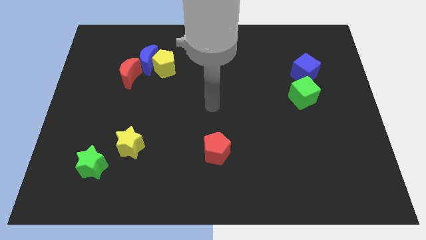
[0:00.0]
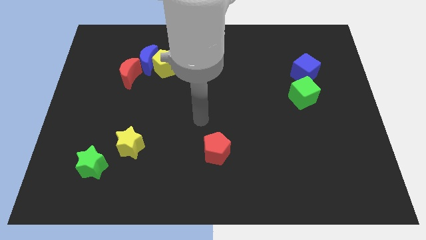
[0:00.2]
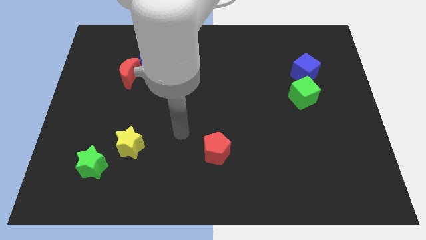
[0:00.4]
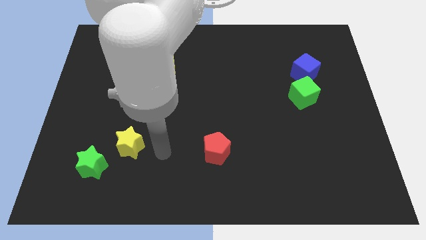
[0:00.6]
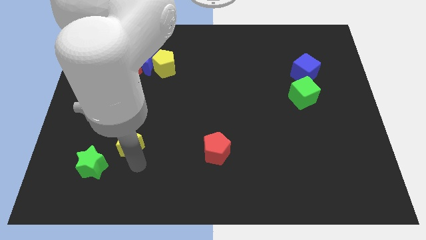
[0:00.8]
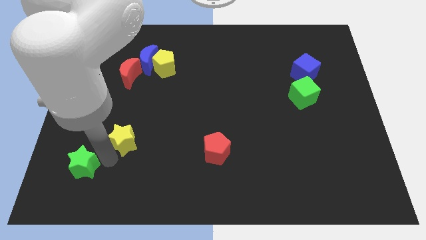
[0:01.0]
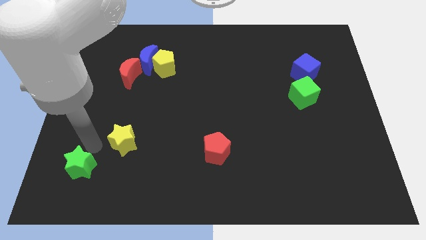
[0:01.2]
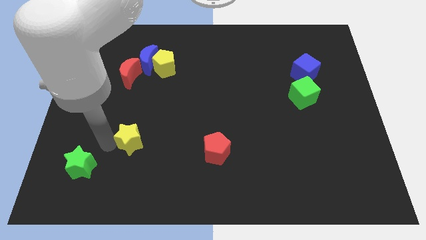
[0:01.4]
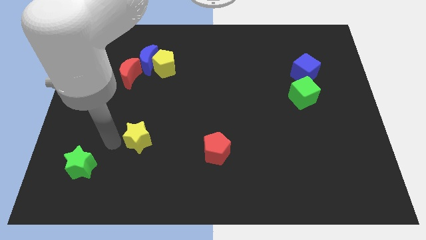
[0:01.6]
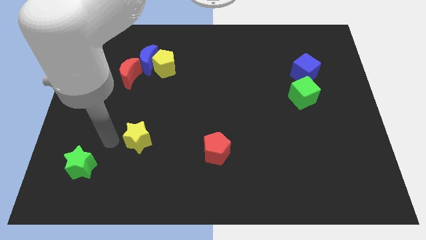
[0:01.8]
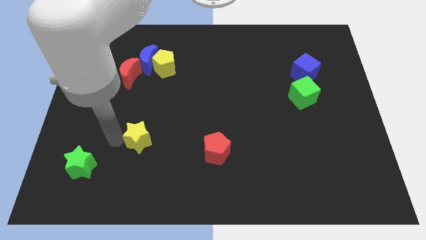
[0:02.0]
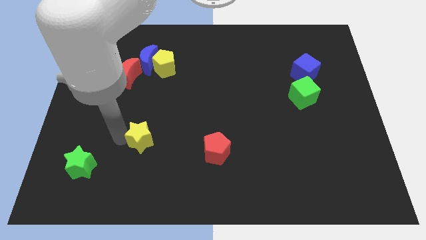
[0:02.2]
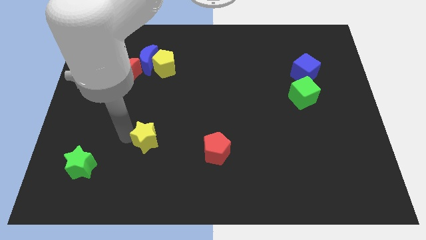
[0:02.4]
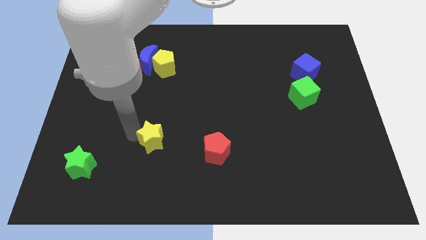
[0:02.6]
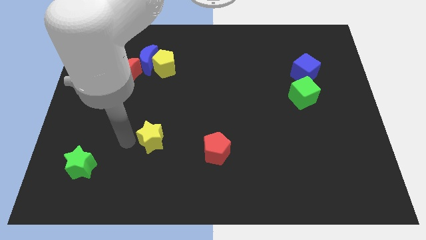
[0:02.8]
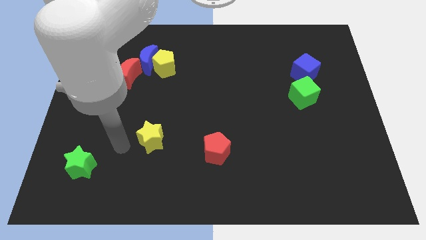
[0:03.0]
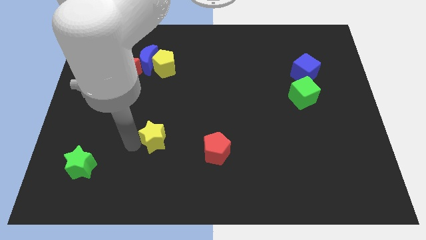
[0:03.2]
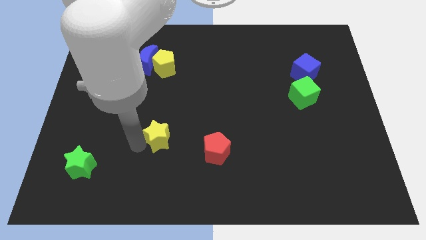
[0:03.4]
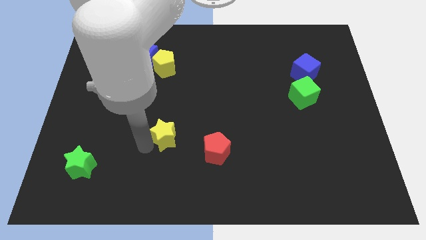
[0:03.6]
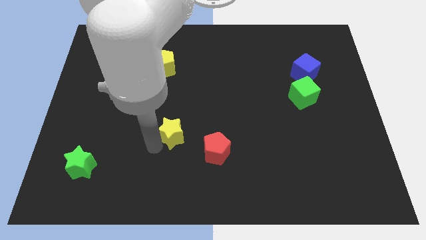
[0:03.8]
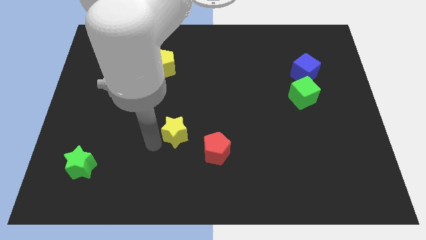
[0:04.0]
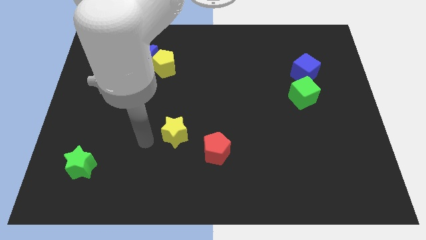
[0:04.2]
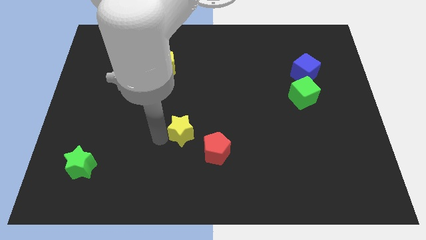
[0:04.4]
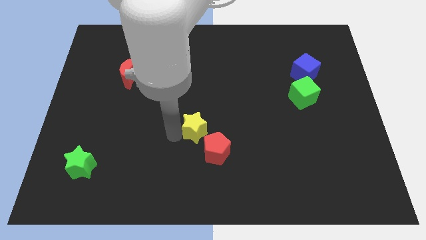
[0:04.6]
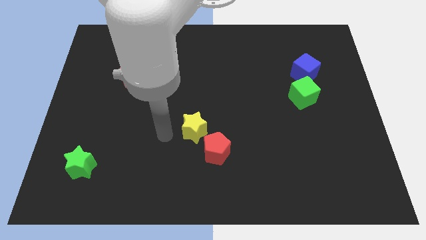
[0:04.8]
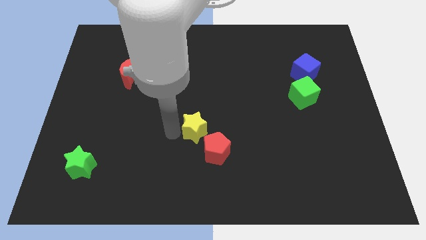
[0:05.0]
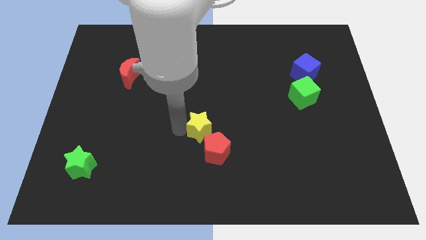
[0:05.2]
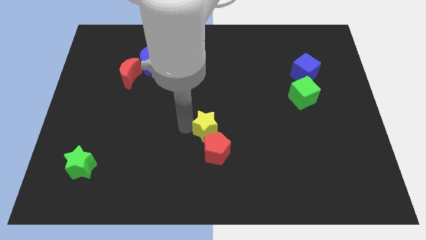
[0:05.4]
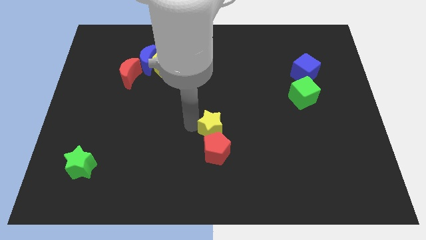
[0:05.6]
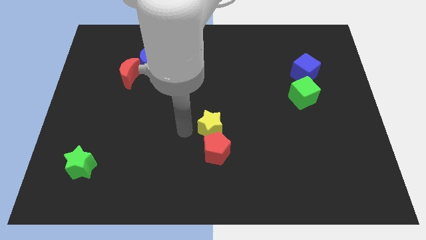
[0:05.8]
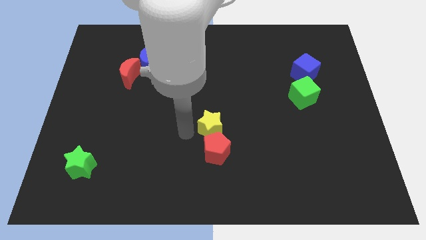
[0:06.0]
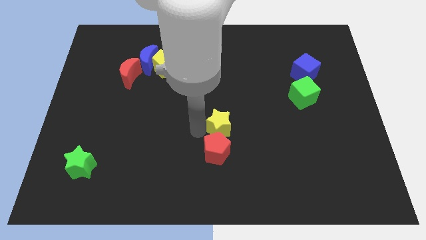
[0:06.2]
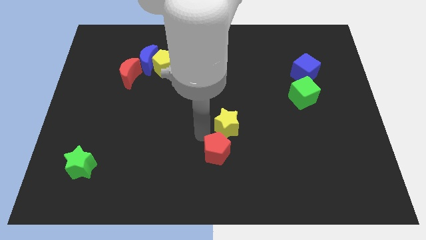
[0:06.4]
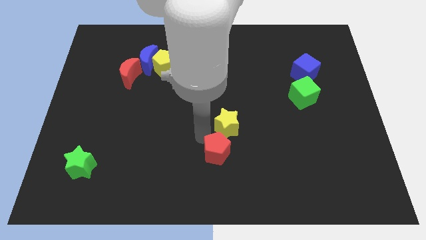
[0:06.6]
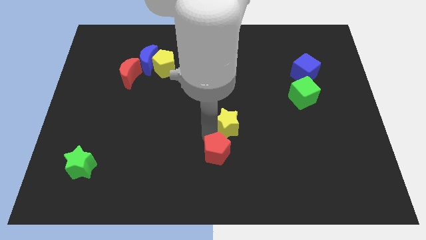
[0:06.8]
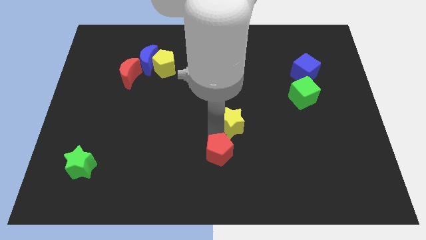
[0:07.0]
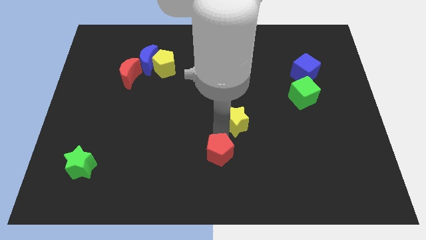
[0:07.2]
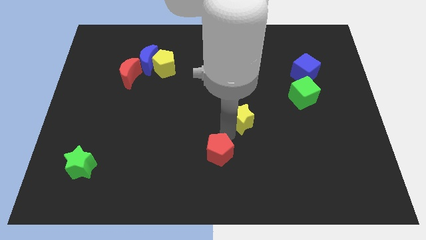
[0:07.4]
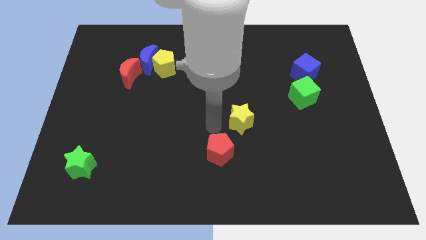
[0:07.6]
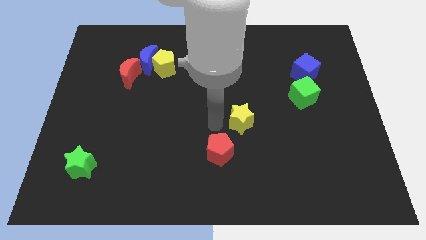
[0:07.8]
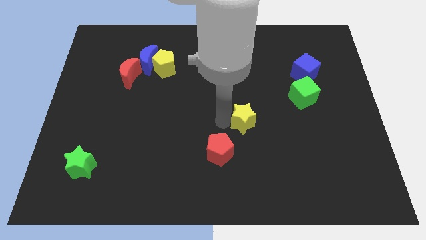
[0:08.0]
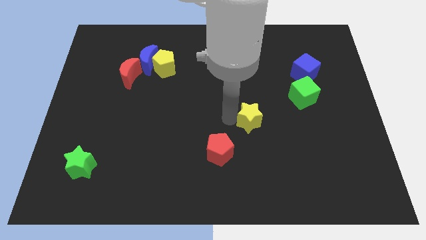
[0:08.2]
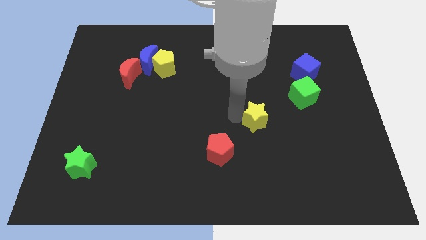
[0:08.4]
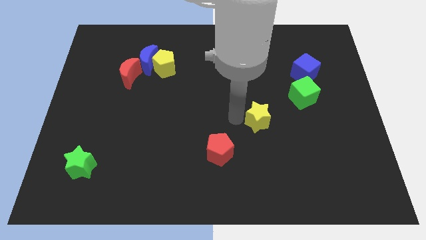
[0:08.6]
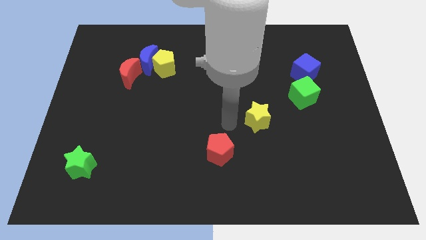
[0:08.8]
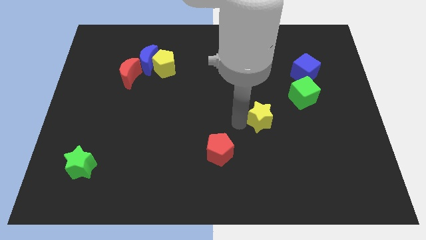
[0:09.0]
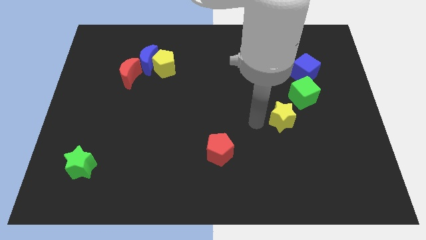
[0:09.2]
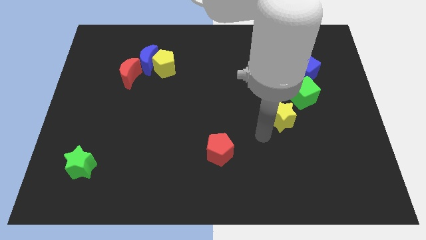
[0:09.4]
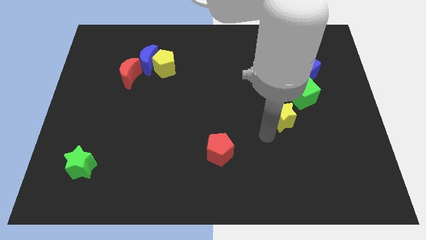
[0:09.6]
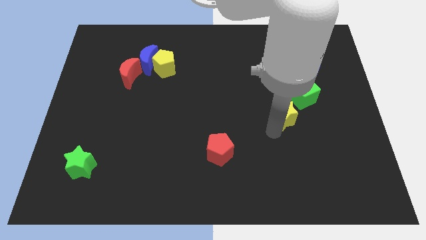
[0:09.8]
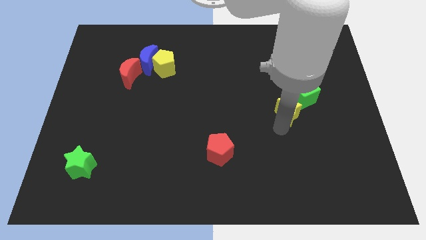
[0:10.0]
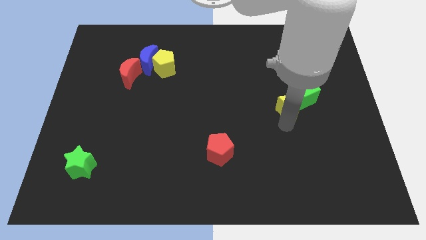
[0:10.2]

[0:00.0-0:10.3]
put the yellow star close to the green cube

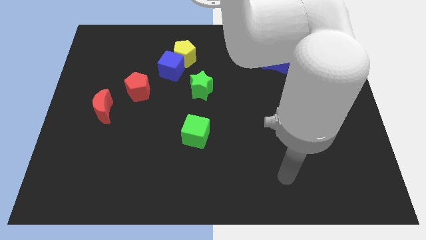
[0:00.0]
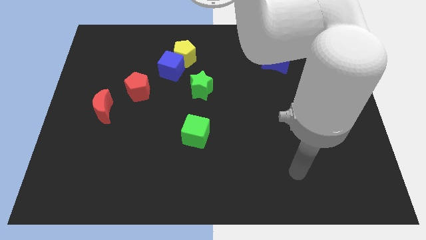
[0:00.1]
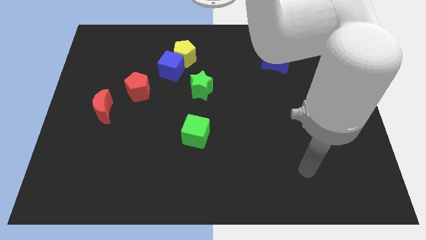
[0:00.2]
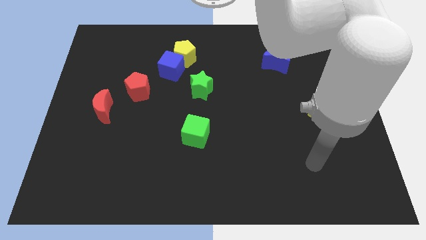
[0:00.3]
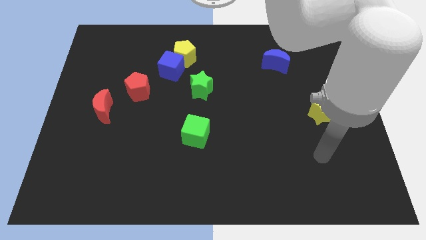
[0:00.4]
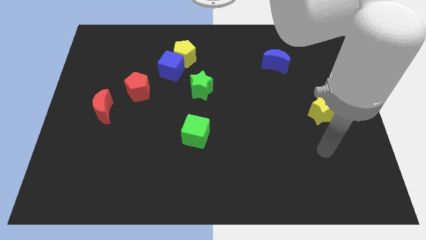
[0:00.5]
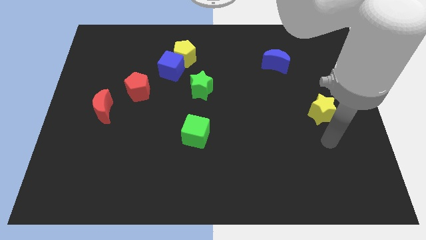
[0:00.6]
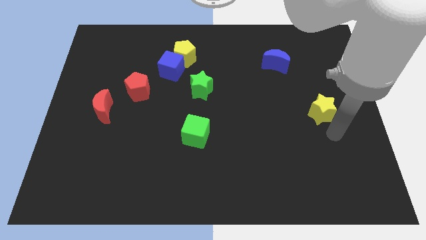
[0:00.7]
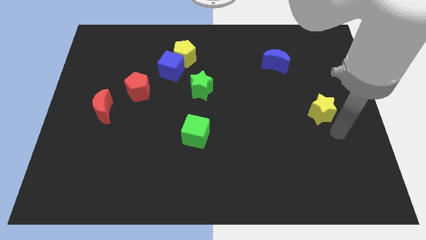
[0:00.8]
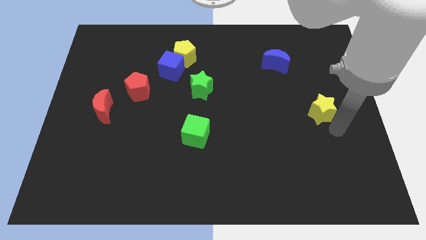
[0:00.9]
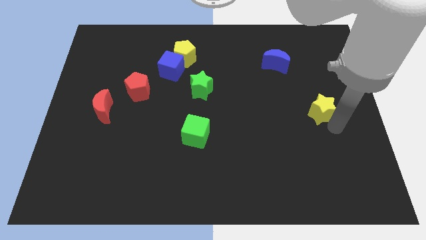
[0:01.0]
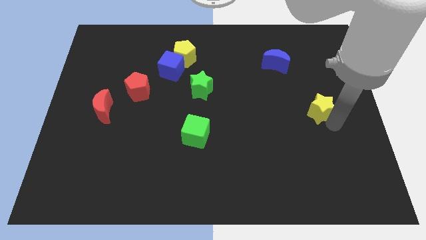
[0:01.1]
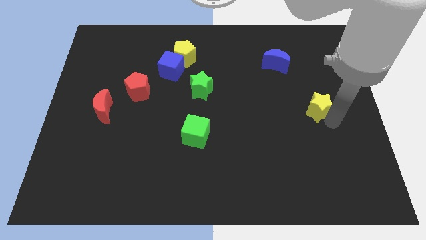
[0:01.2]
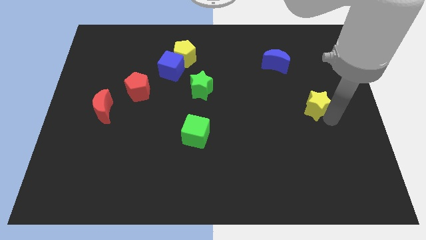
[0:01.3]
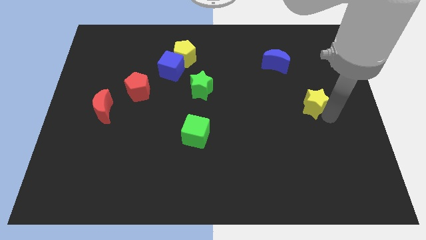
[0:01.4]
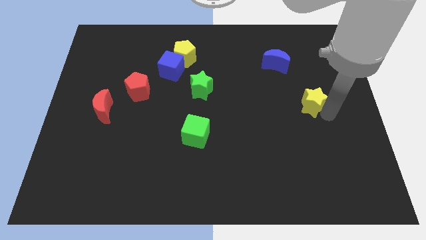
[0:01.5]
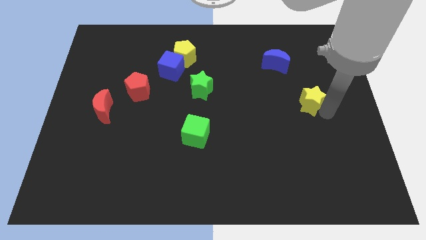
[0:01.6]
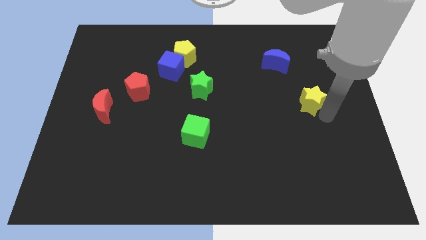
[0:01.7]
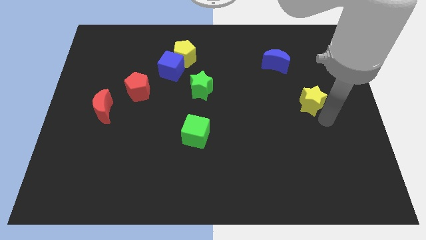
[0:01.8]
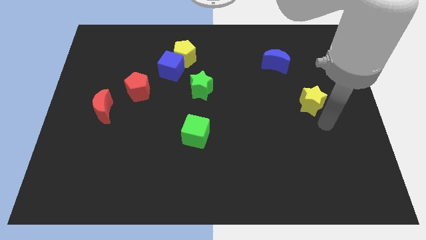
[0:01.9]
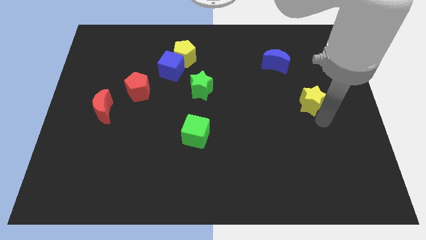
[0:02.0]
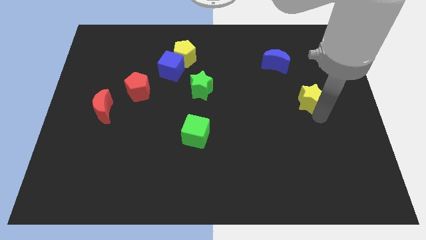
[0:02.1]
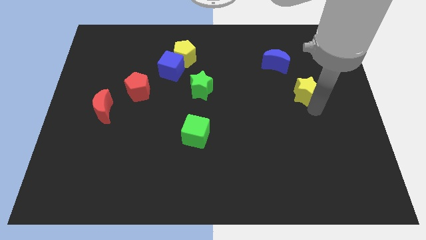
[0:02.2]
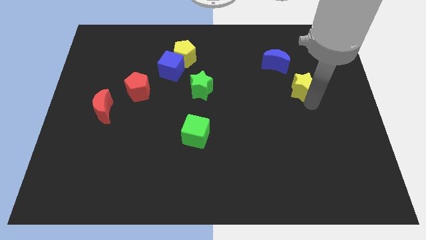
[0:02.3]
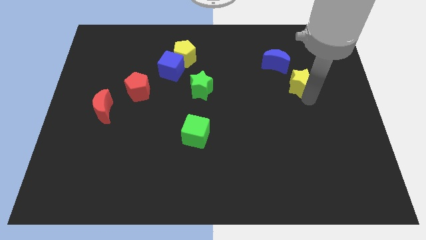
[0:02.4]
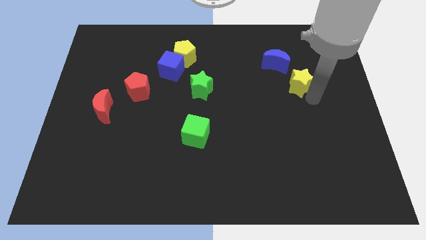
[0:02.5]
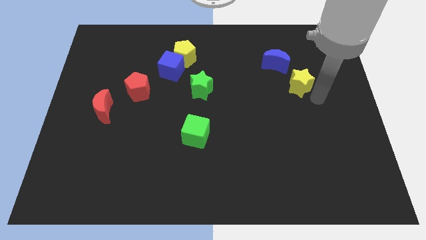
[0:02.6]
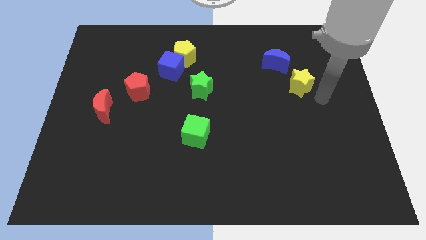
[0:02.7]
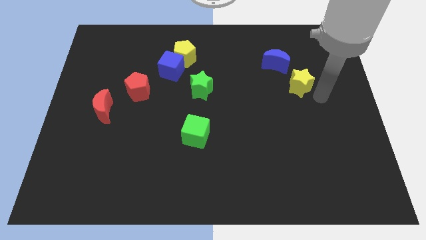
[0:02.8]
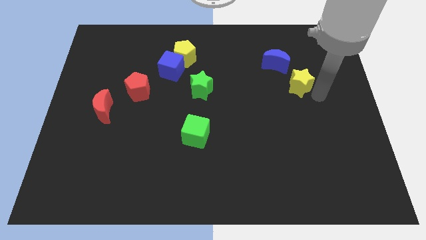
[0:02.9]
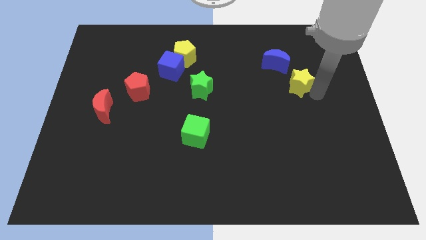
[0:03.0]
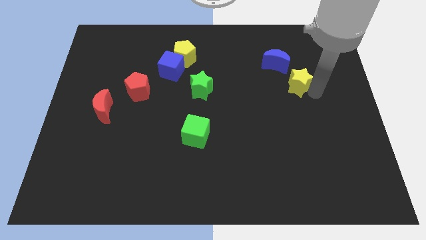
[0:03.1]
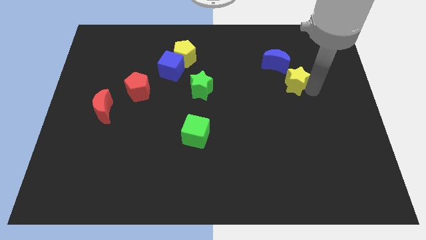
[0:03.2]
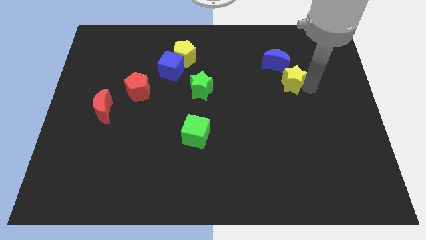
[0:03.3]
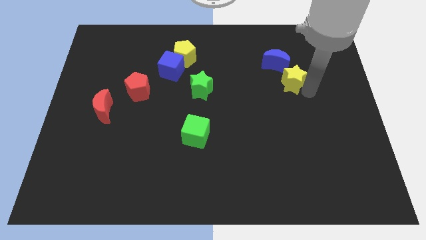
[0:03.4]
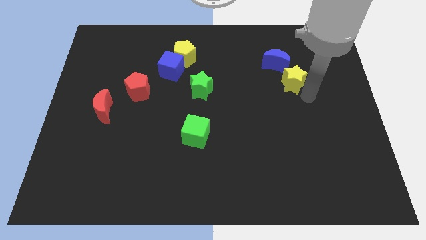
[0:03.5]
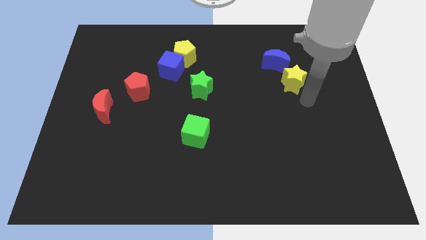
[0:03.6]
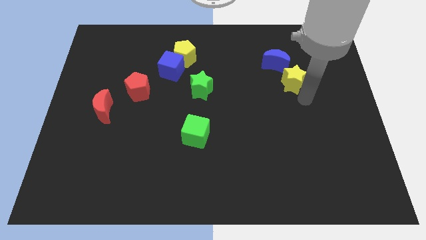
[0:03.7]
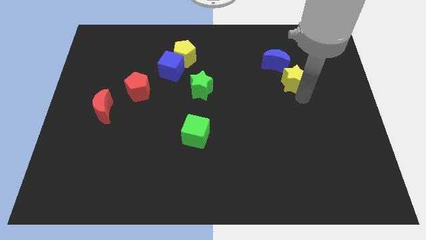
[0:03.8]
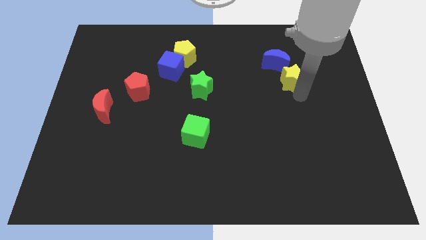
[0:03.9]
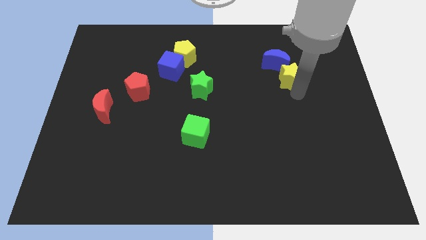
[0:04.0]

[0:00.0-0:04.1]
slide the yellow star close to the blue moon
